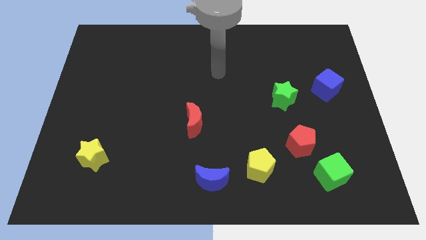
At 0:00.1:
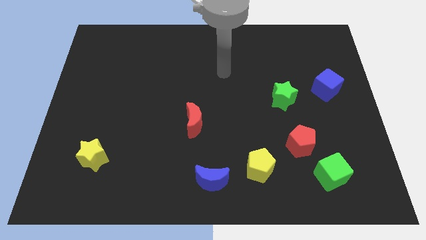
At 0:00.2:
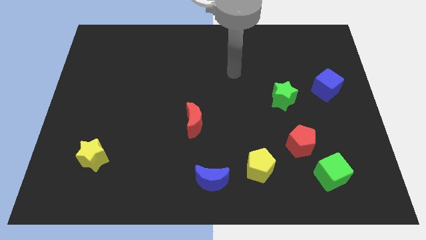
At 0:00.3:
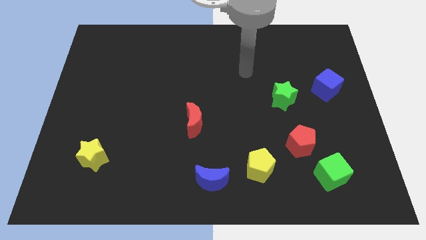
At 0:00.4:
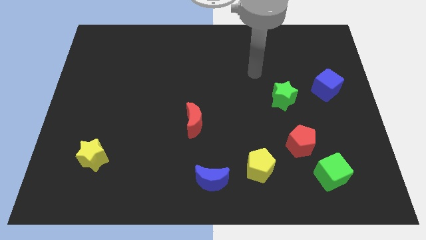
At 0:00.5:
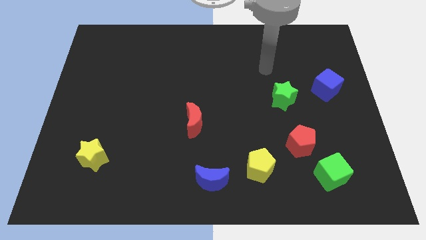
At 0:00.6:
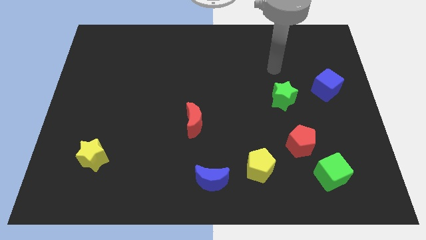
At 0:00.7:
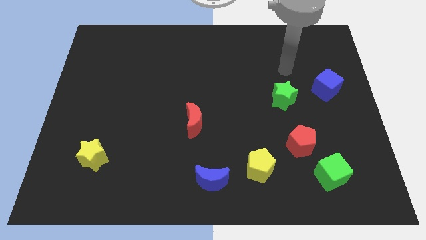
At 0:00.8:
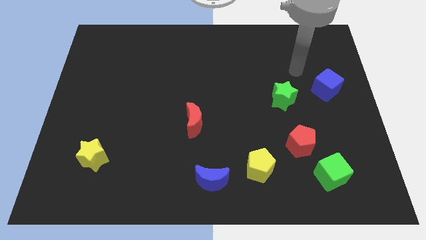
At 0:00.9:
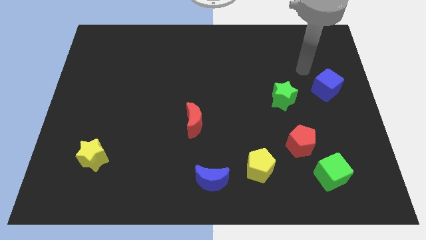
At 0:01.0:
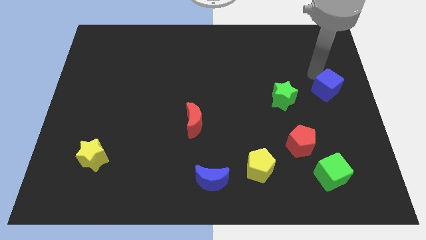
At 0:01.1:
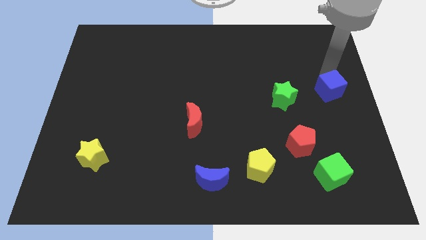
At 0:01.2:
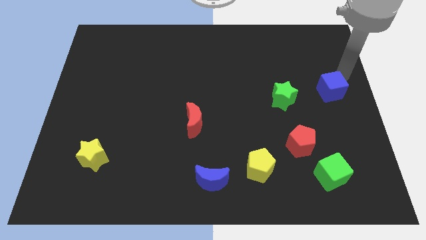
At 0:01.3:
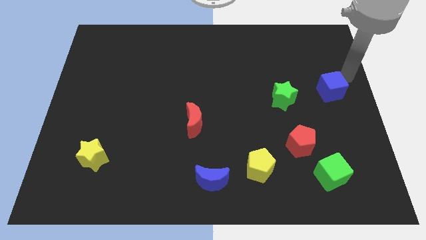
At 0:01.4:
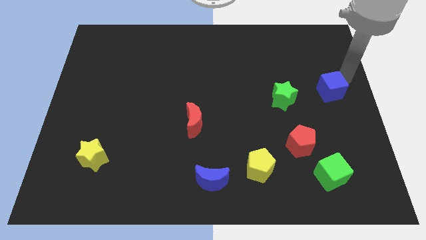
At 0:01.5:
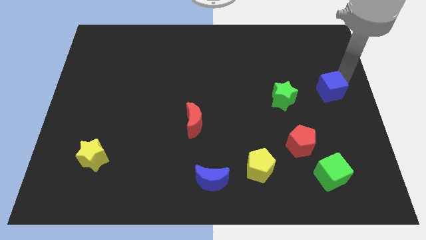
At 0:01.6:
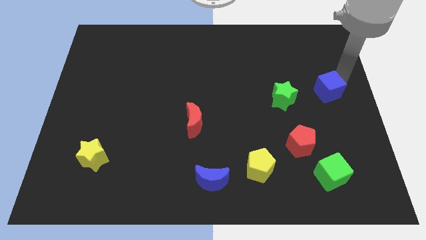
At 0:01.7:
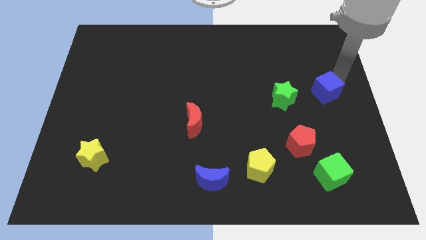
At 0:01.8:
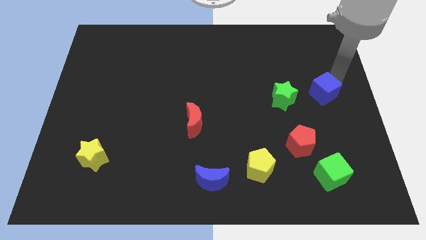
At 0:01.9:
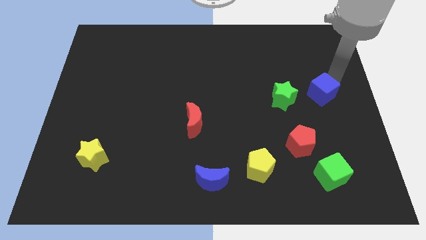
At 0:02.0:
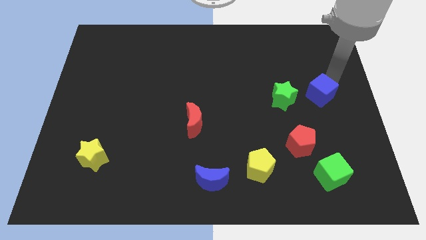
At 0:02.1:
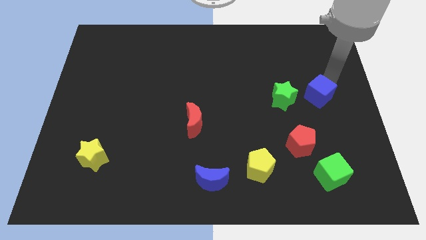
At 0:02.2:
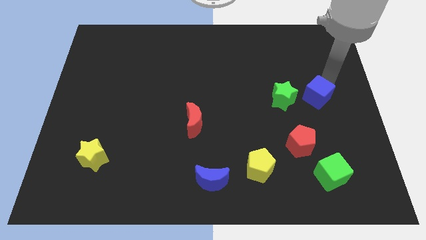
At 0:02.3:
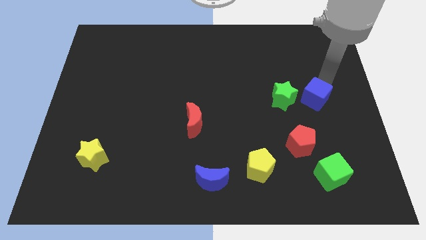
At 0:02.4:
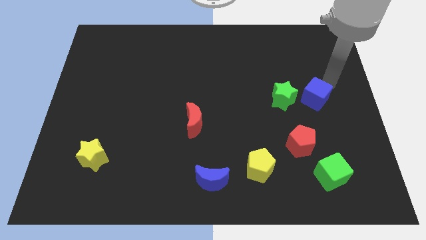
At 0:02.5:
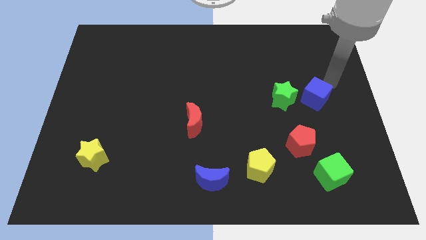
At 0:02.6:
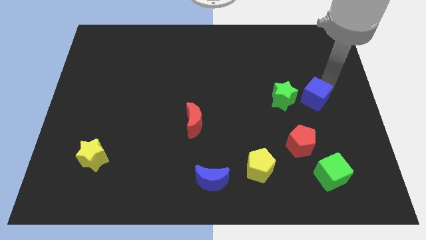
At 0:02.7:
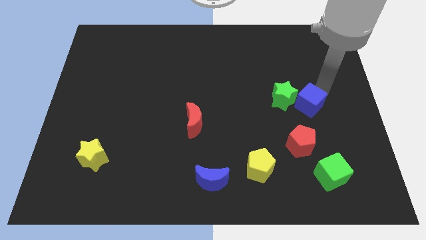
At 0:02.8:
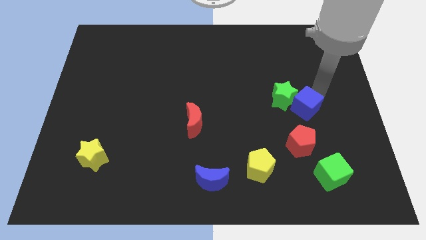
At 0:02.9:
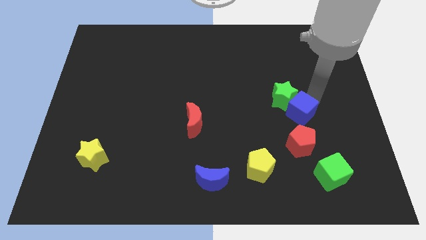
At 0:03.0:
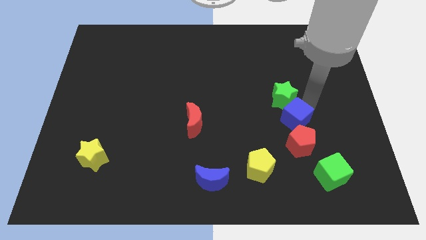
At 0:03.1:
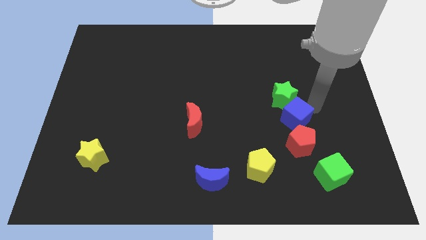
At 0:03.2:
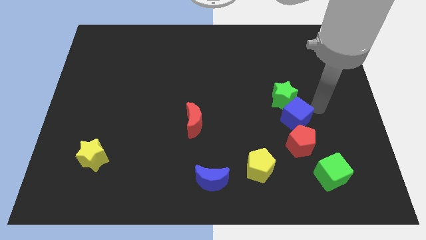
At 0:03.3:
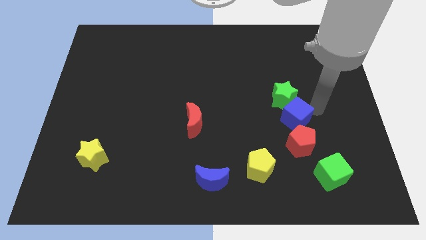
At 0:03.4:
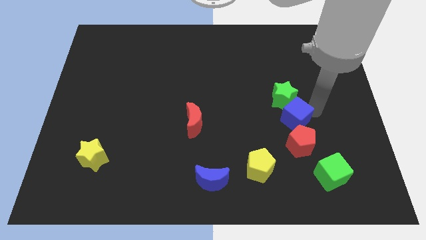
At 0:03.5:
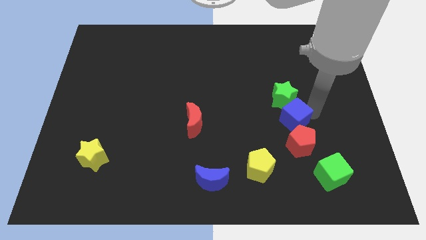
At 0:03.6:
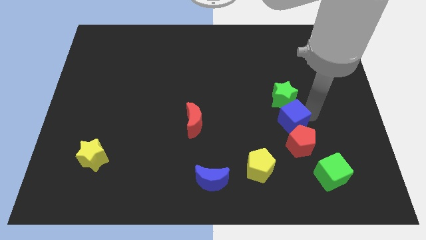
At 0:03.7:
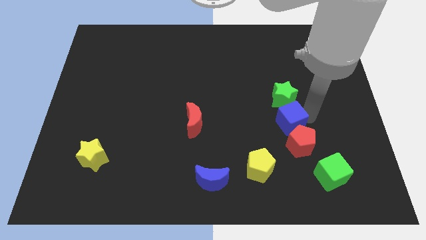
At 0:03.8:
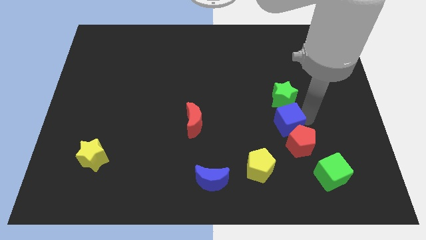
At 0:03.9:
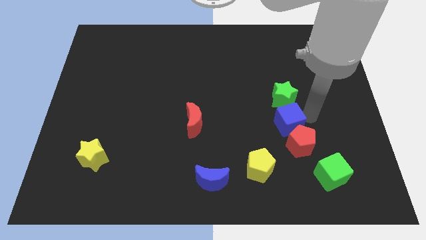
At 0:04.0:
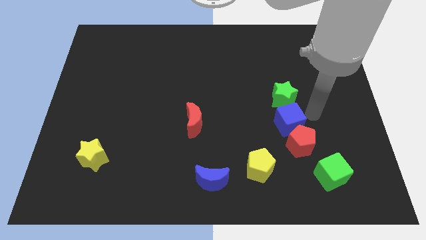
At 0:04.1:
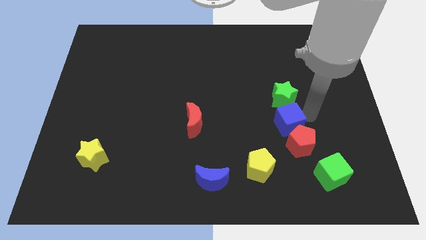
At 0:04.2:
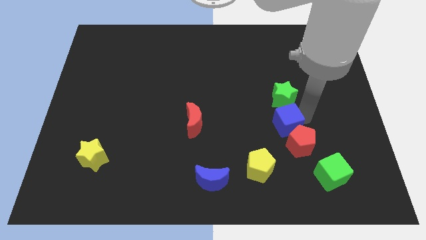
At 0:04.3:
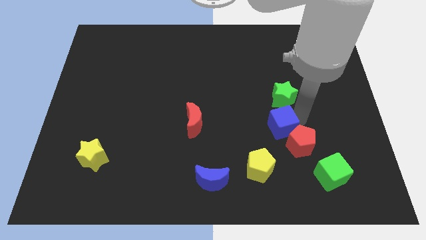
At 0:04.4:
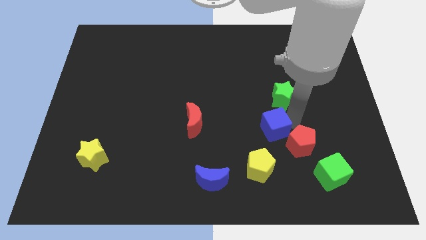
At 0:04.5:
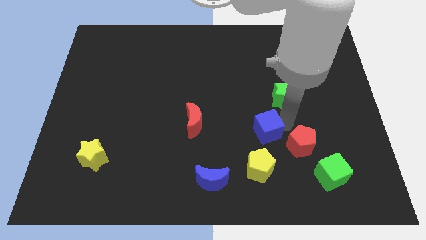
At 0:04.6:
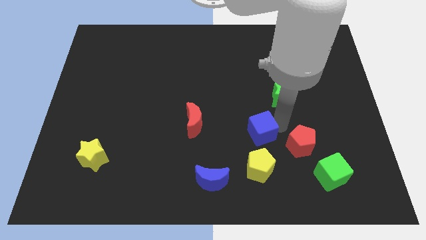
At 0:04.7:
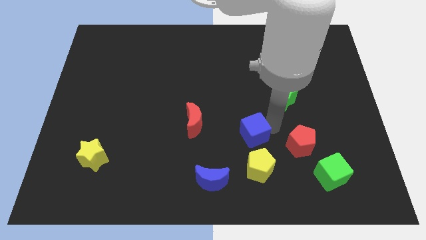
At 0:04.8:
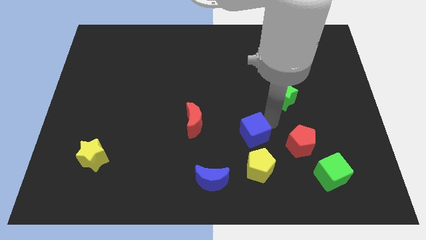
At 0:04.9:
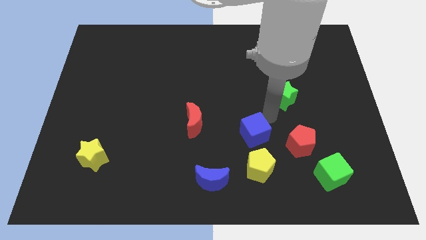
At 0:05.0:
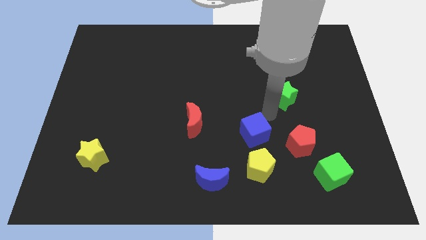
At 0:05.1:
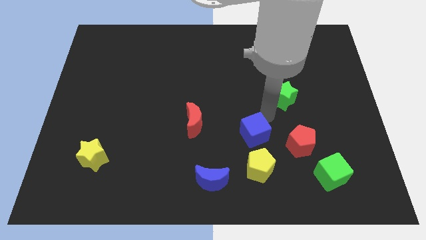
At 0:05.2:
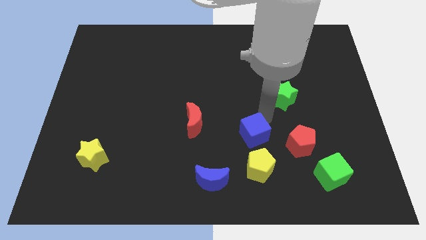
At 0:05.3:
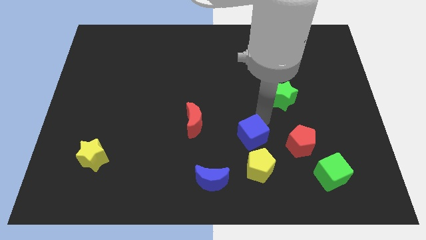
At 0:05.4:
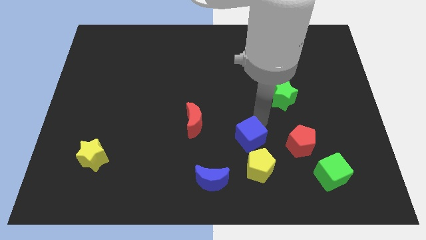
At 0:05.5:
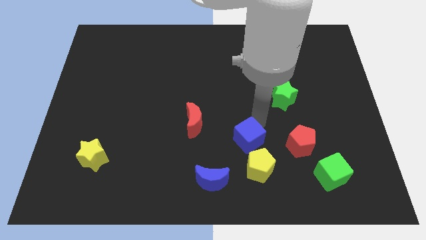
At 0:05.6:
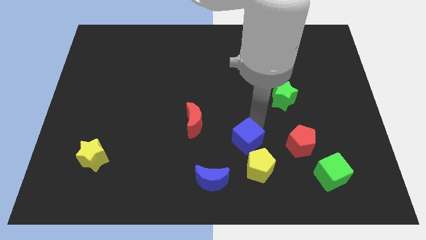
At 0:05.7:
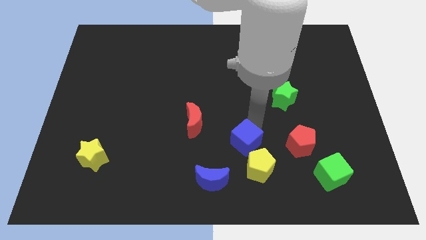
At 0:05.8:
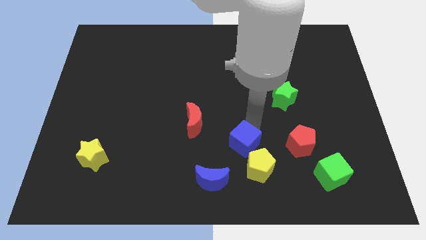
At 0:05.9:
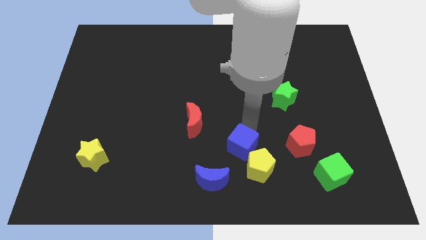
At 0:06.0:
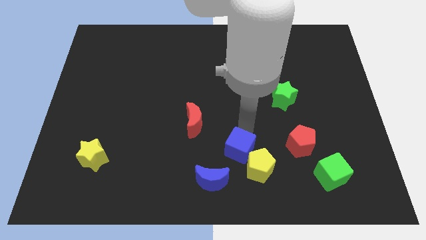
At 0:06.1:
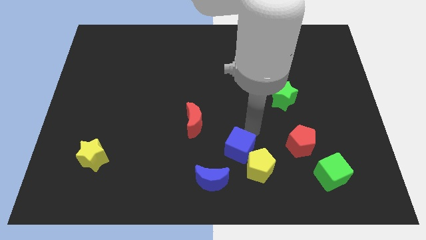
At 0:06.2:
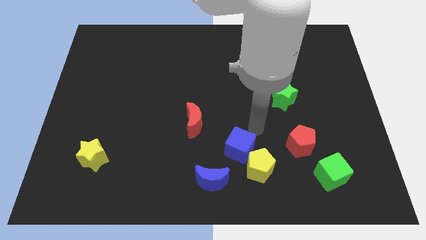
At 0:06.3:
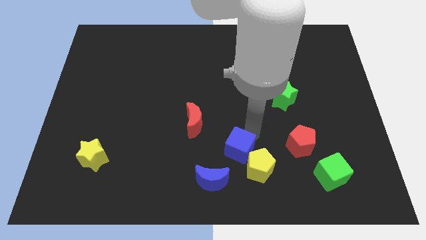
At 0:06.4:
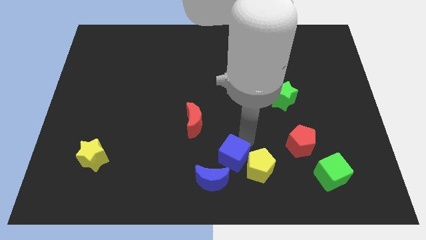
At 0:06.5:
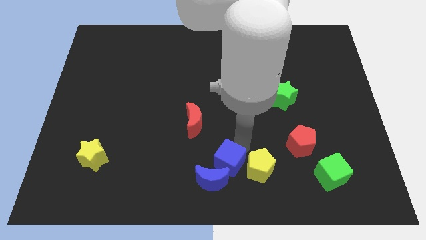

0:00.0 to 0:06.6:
slide the blue cube next to the blue moon

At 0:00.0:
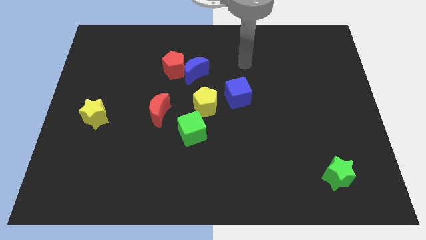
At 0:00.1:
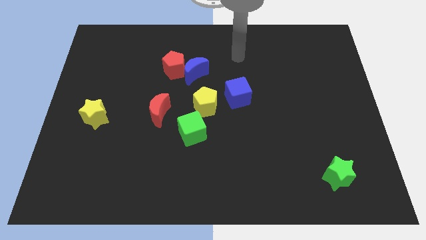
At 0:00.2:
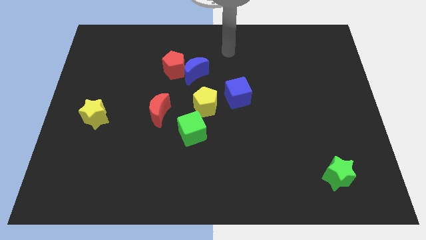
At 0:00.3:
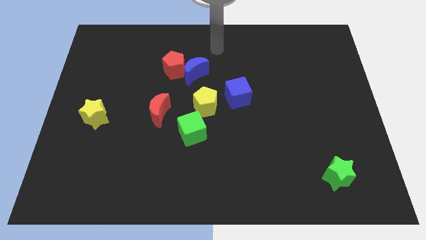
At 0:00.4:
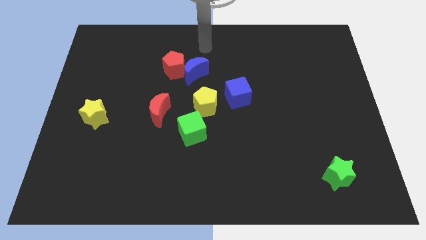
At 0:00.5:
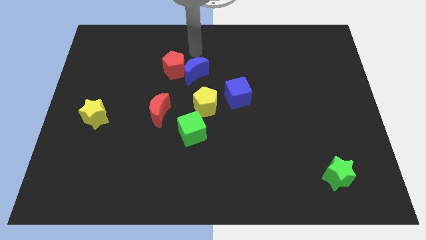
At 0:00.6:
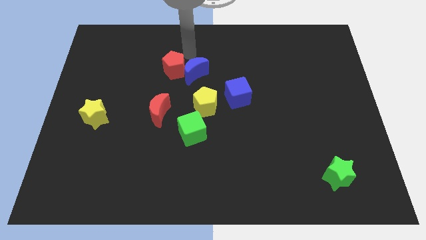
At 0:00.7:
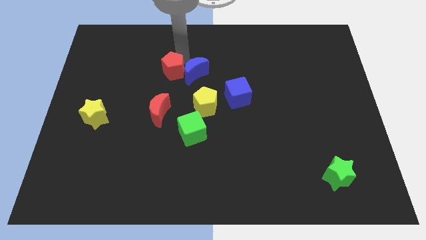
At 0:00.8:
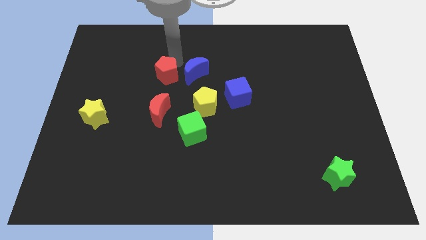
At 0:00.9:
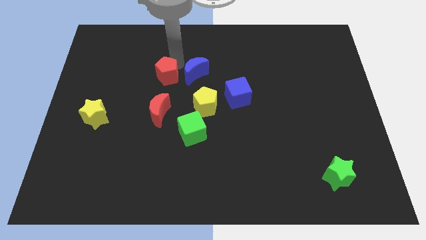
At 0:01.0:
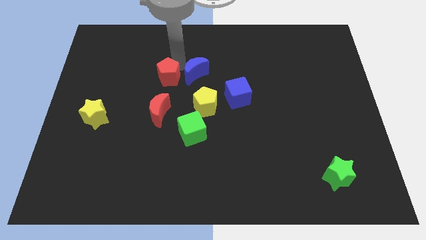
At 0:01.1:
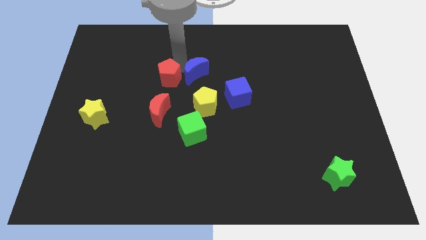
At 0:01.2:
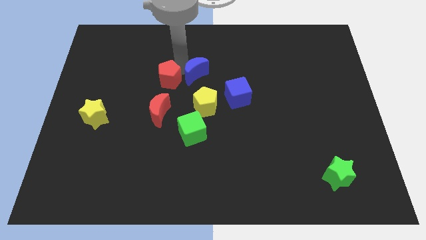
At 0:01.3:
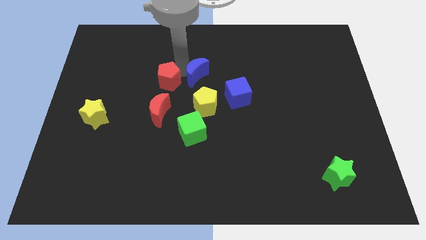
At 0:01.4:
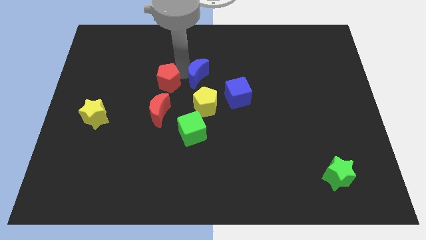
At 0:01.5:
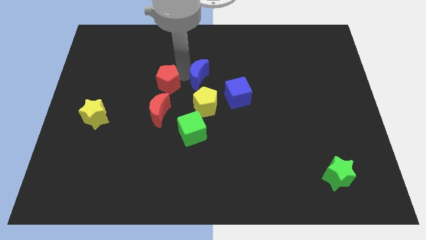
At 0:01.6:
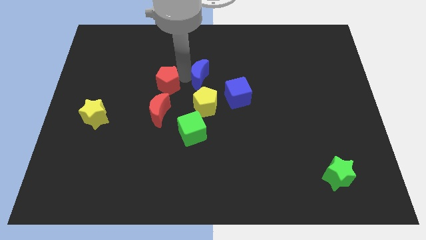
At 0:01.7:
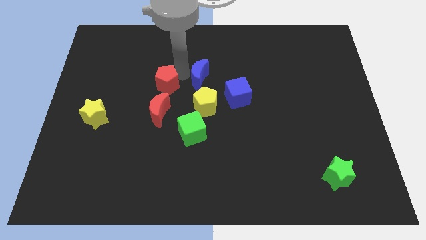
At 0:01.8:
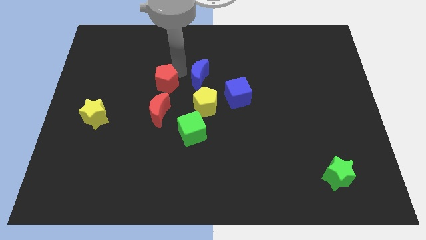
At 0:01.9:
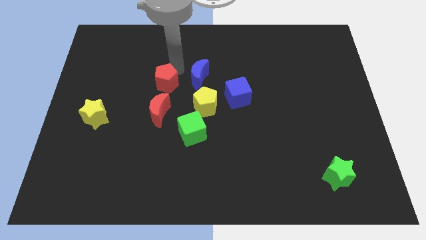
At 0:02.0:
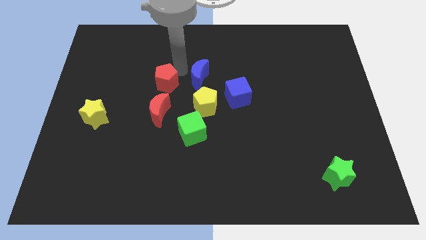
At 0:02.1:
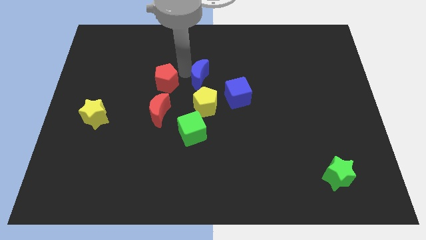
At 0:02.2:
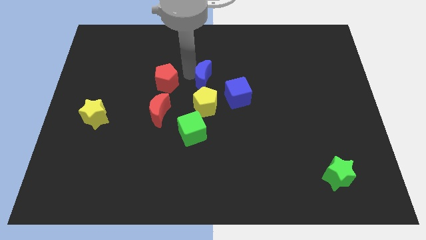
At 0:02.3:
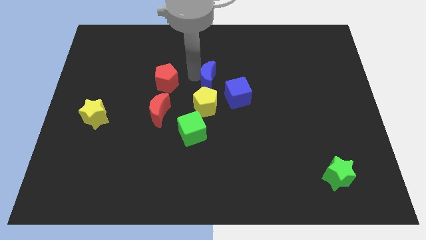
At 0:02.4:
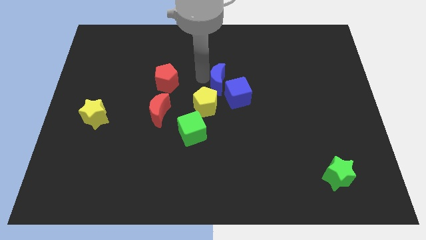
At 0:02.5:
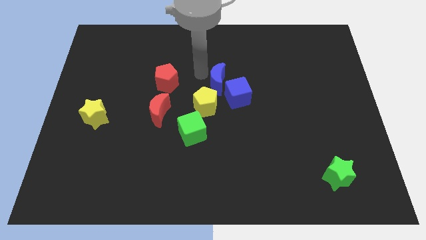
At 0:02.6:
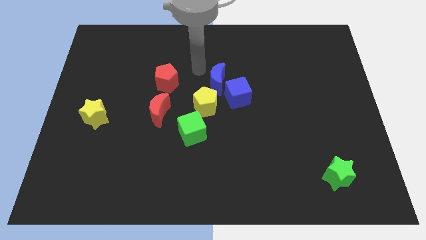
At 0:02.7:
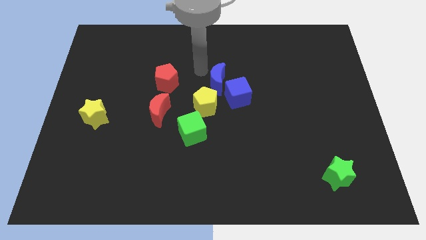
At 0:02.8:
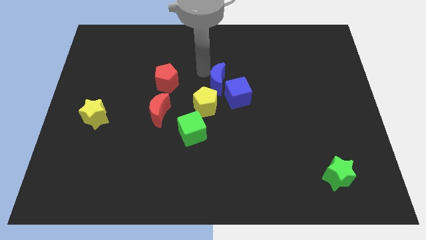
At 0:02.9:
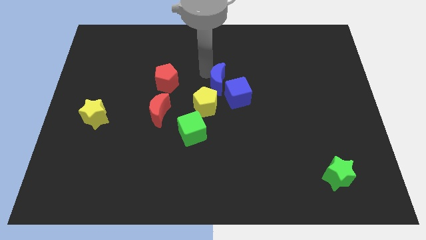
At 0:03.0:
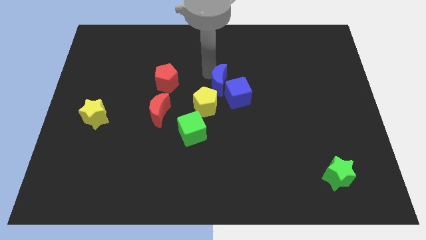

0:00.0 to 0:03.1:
push the blue moon close to the blue cube
